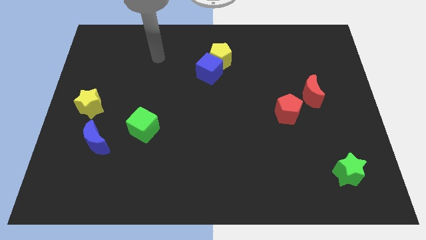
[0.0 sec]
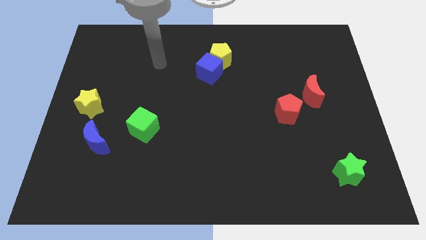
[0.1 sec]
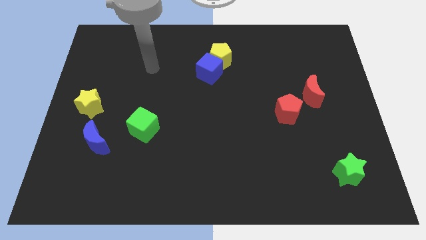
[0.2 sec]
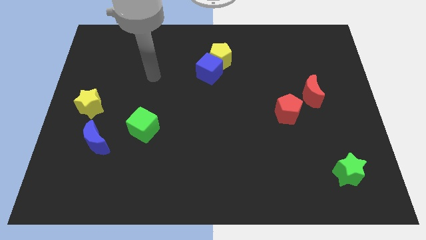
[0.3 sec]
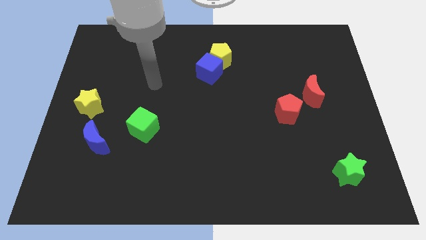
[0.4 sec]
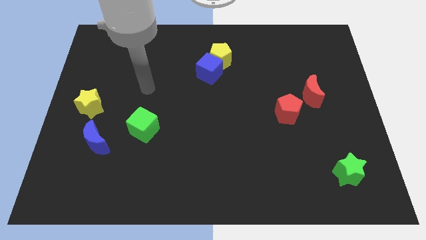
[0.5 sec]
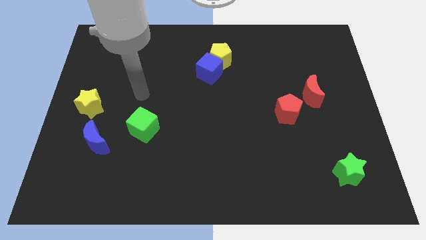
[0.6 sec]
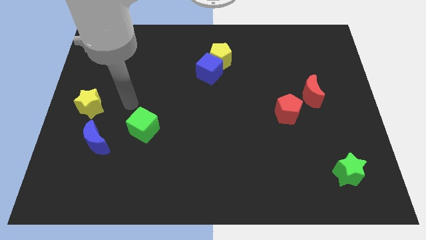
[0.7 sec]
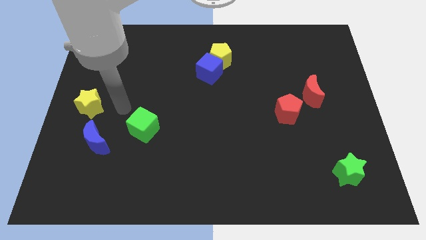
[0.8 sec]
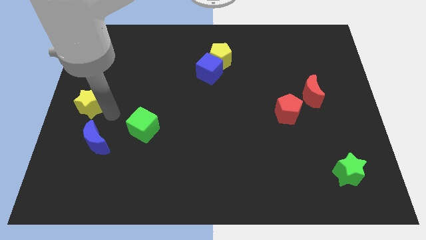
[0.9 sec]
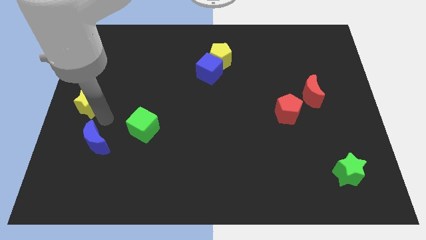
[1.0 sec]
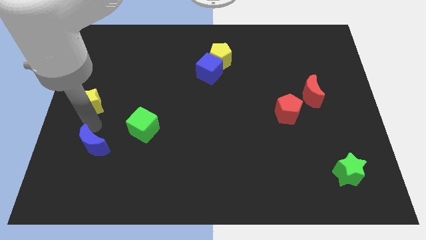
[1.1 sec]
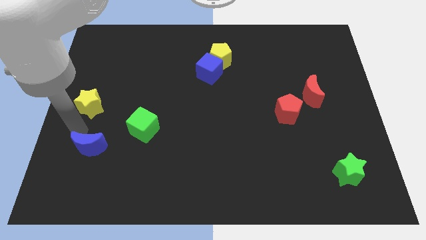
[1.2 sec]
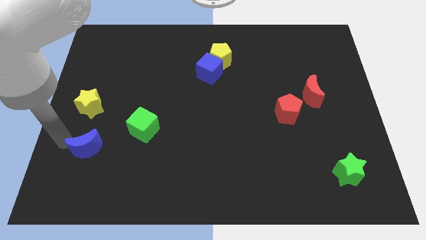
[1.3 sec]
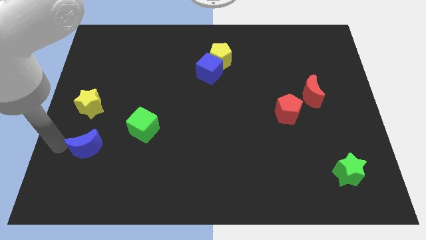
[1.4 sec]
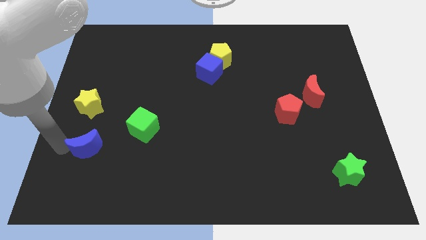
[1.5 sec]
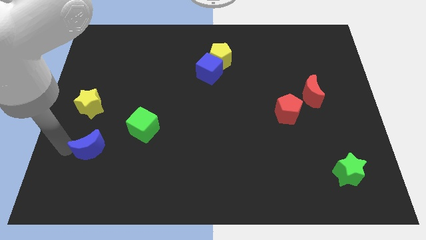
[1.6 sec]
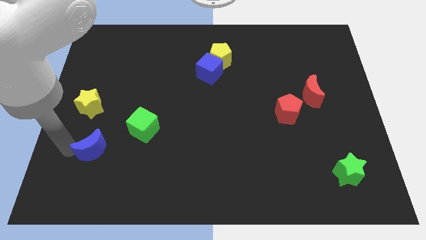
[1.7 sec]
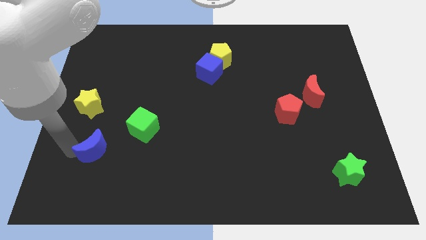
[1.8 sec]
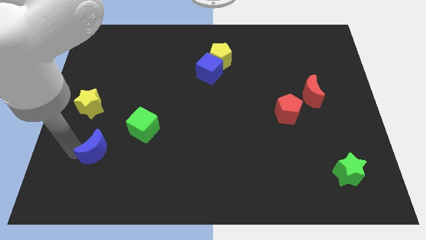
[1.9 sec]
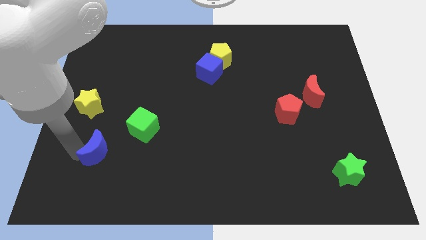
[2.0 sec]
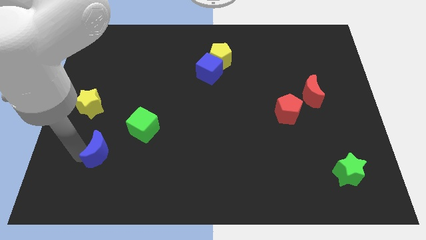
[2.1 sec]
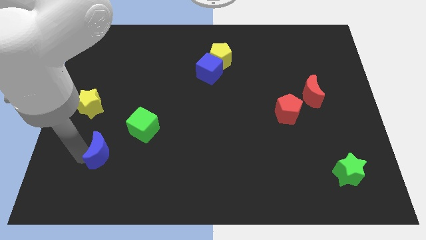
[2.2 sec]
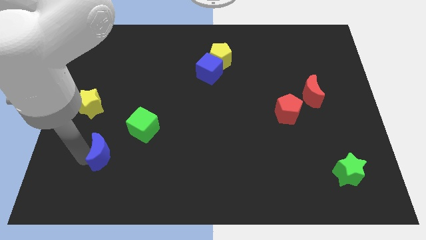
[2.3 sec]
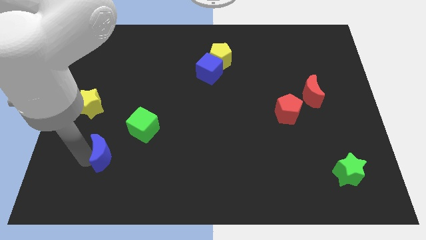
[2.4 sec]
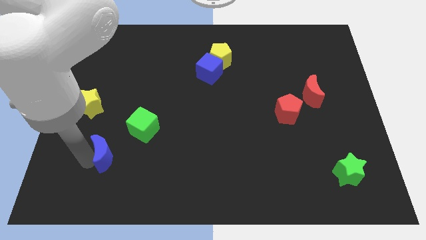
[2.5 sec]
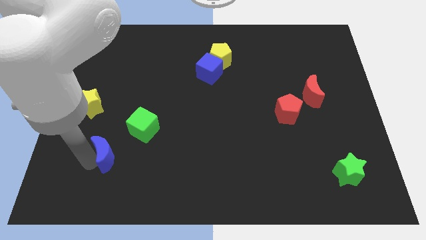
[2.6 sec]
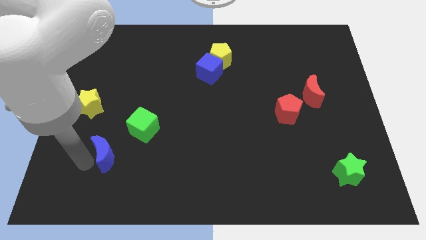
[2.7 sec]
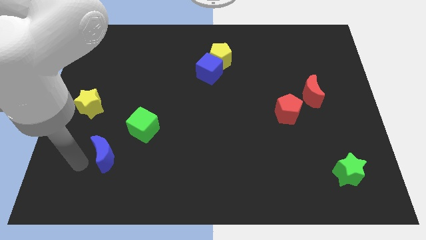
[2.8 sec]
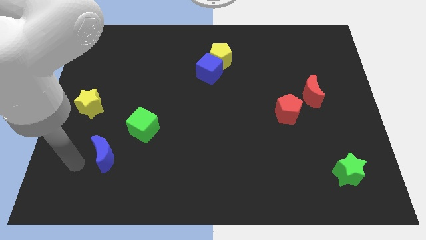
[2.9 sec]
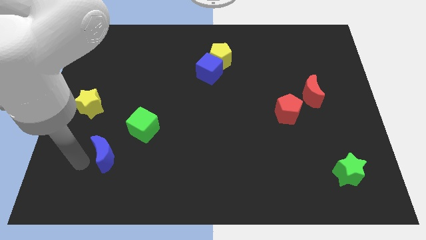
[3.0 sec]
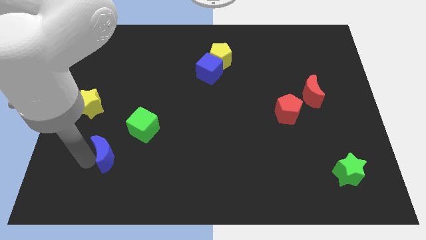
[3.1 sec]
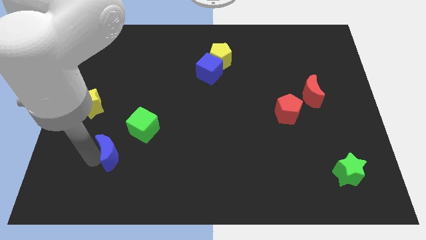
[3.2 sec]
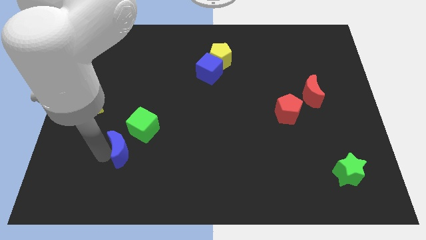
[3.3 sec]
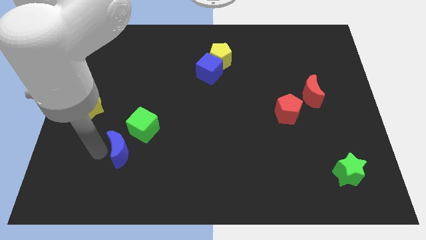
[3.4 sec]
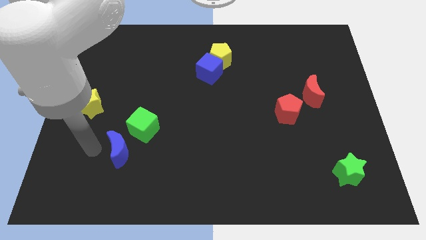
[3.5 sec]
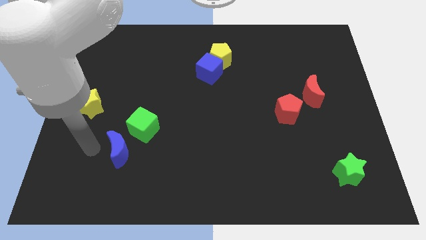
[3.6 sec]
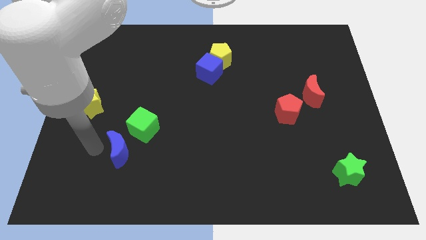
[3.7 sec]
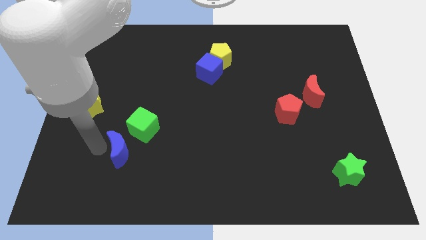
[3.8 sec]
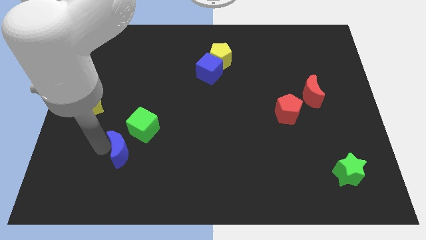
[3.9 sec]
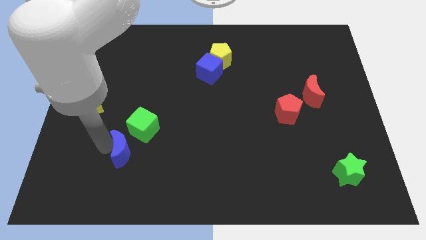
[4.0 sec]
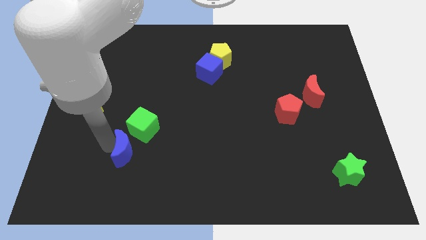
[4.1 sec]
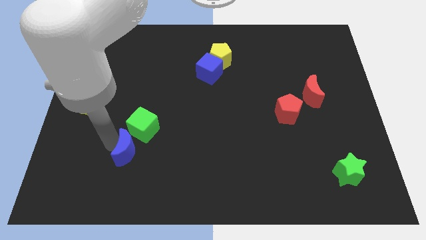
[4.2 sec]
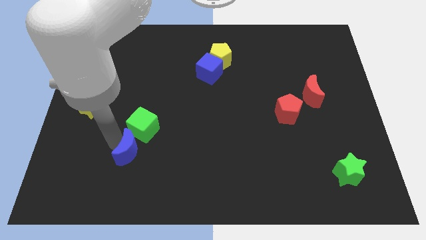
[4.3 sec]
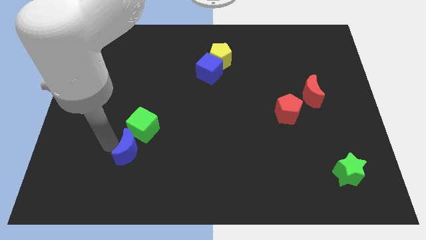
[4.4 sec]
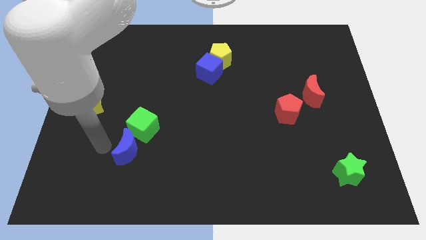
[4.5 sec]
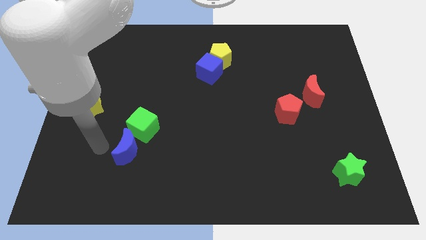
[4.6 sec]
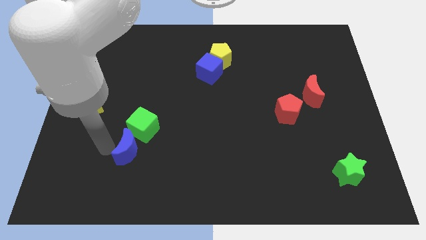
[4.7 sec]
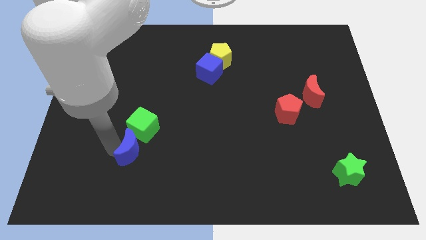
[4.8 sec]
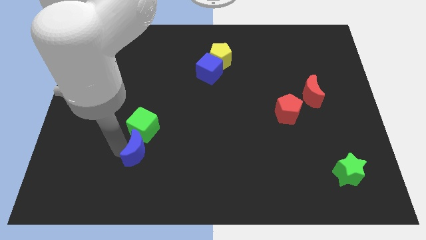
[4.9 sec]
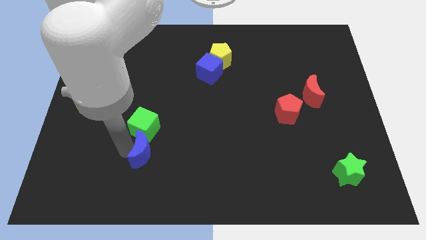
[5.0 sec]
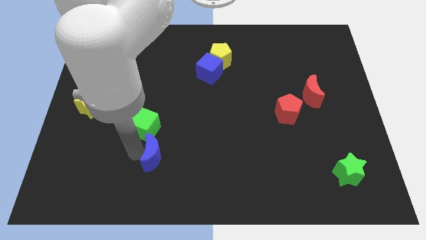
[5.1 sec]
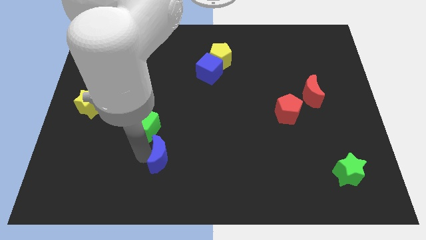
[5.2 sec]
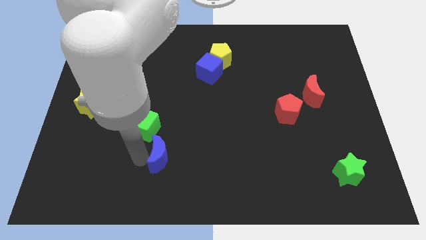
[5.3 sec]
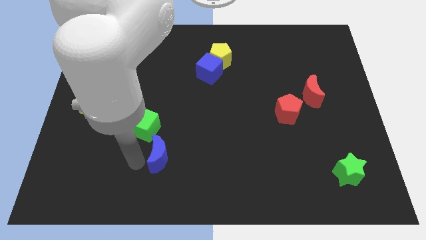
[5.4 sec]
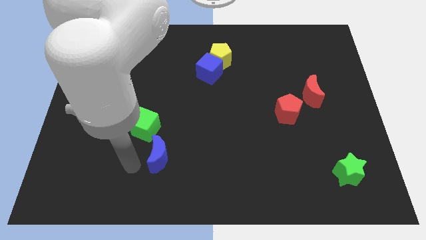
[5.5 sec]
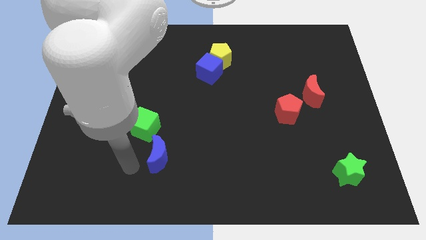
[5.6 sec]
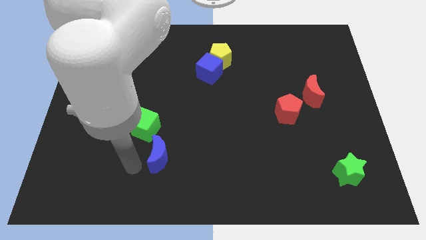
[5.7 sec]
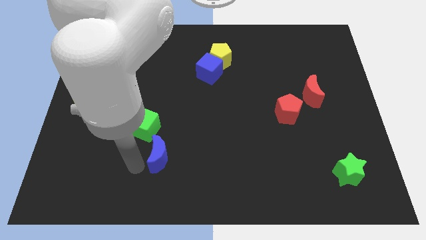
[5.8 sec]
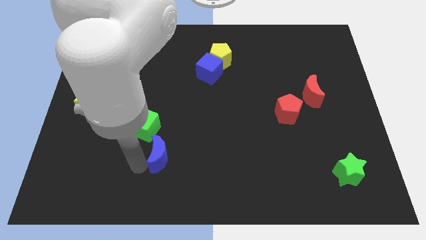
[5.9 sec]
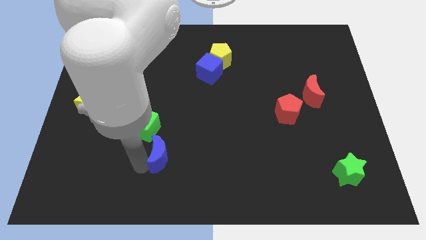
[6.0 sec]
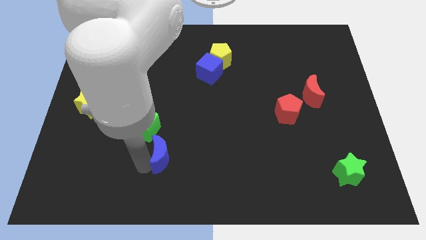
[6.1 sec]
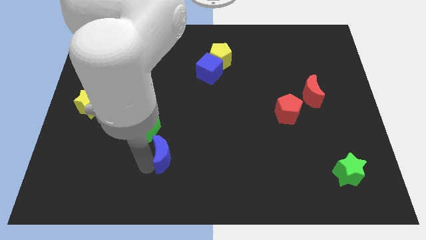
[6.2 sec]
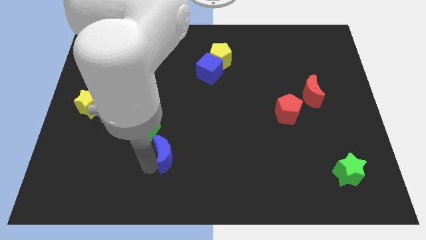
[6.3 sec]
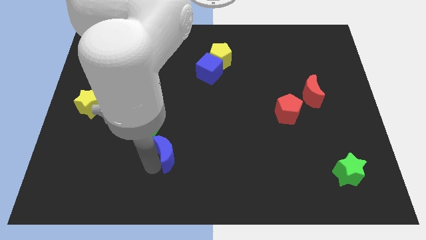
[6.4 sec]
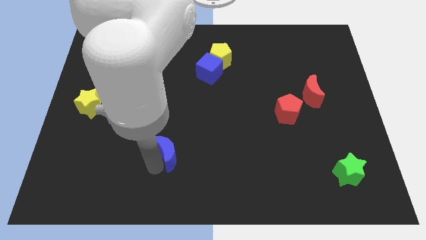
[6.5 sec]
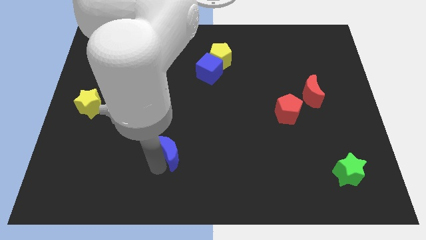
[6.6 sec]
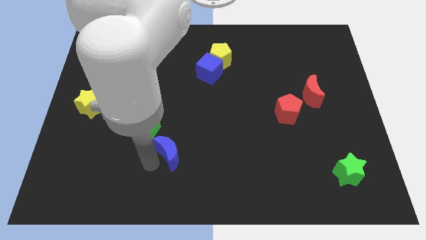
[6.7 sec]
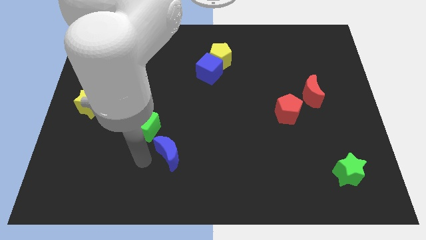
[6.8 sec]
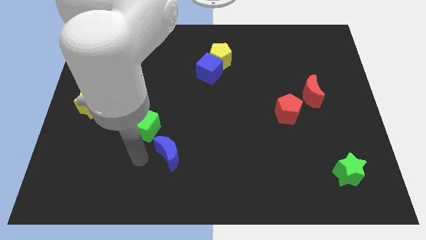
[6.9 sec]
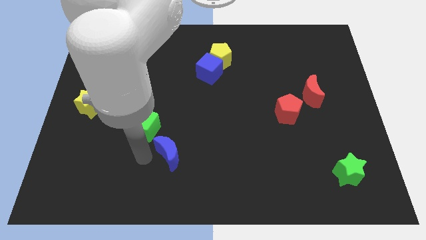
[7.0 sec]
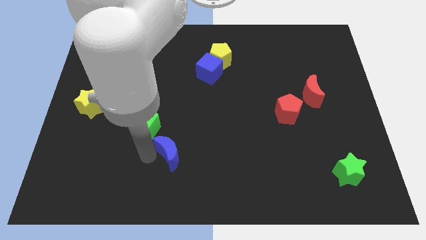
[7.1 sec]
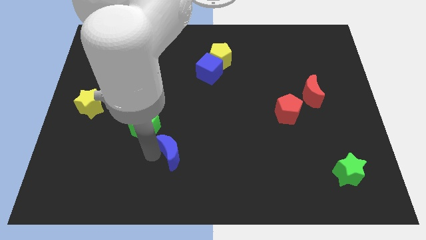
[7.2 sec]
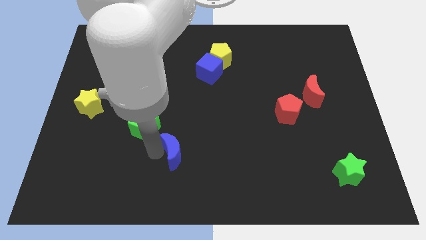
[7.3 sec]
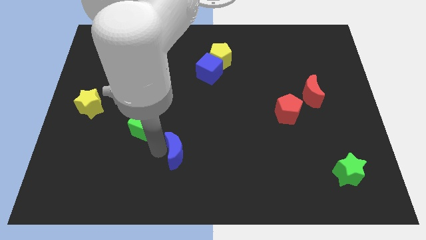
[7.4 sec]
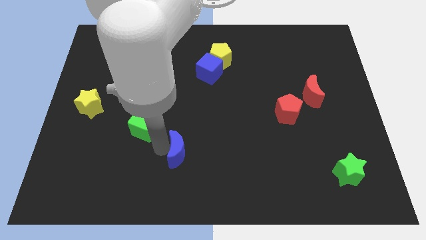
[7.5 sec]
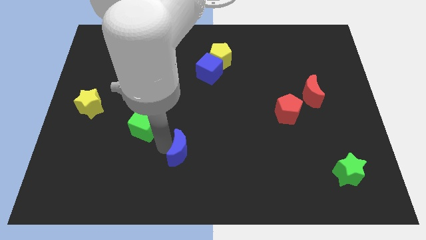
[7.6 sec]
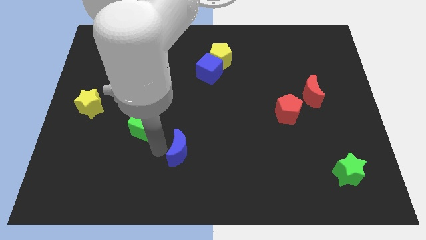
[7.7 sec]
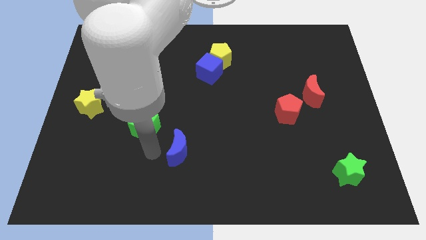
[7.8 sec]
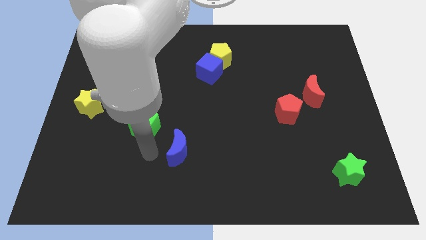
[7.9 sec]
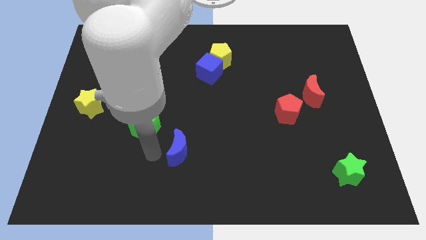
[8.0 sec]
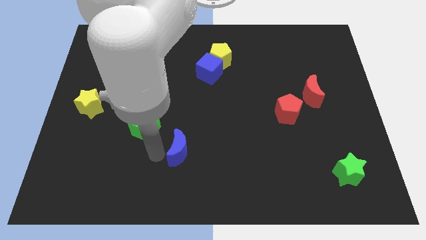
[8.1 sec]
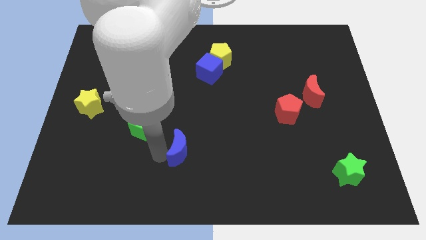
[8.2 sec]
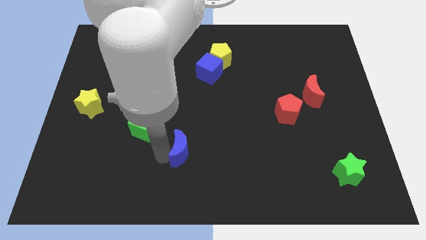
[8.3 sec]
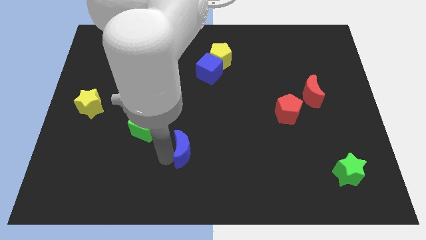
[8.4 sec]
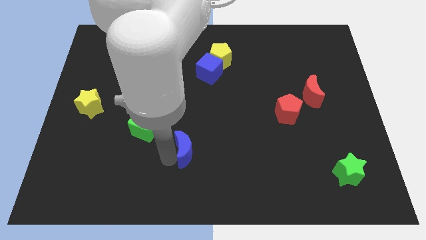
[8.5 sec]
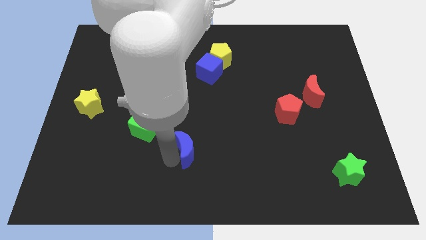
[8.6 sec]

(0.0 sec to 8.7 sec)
push the blue moon to the right

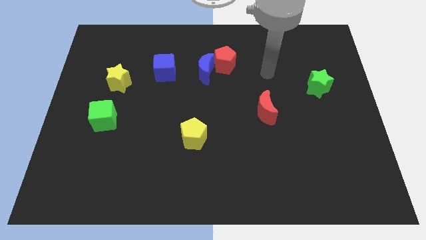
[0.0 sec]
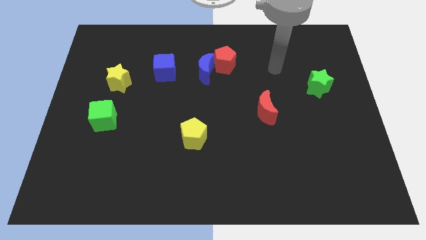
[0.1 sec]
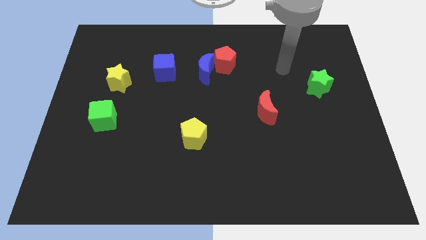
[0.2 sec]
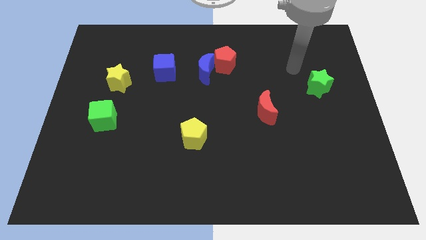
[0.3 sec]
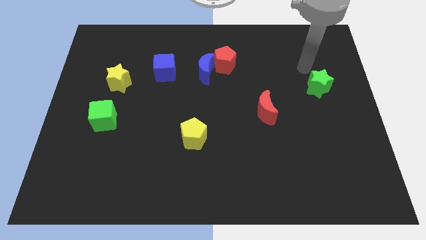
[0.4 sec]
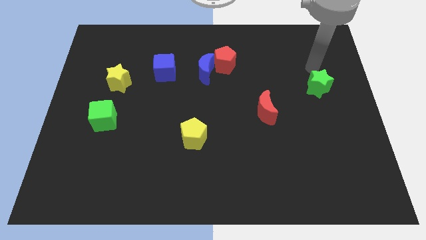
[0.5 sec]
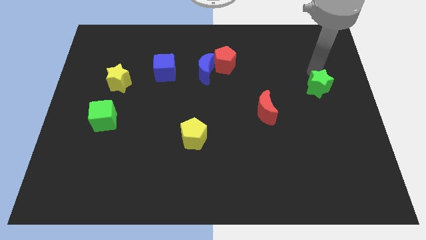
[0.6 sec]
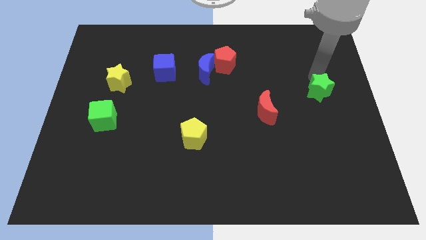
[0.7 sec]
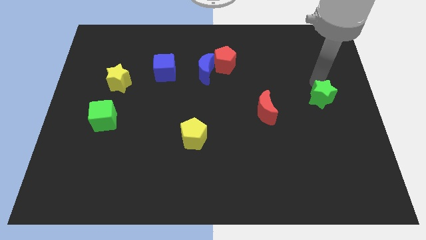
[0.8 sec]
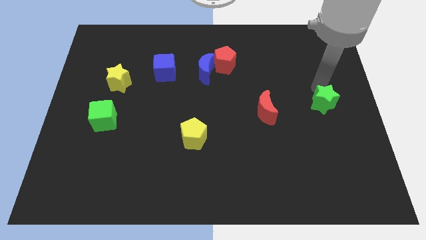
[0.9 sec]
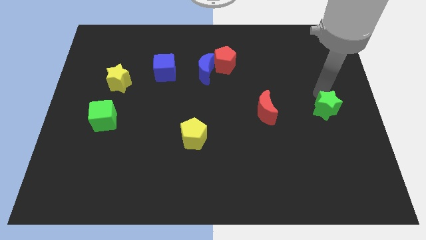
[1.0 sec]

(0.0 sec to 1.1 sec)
push the green star downwards a bit
